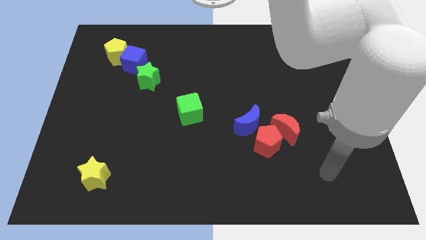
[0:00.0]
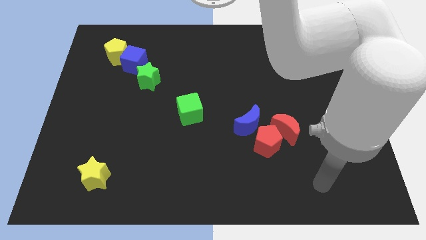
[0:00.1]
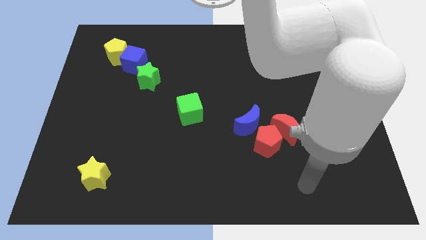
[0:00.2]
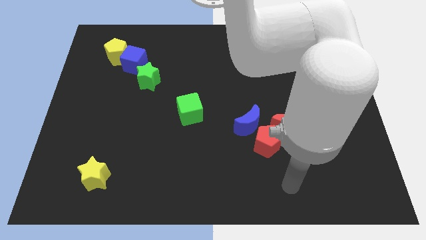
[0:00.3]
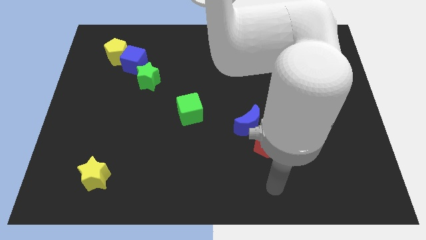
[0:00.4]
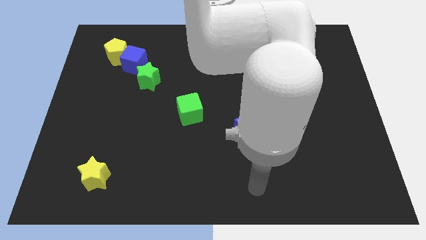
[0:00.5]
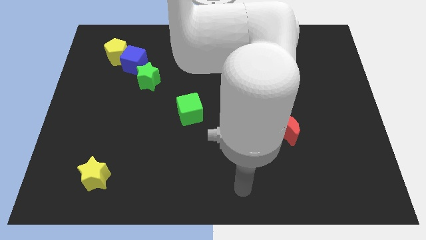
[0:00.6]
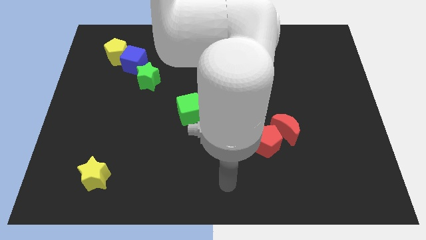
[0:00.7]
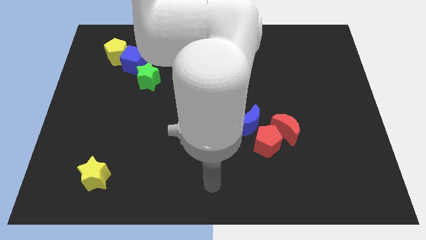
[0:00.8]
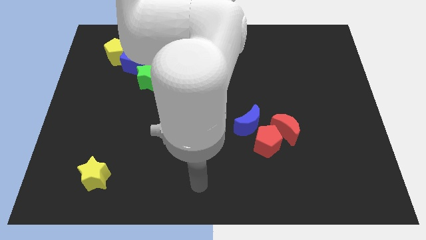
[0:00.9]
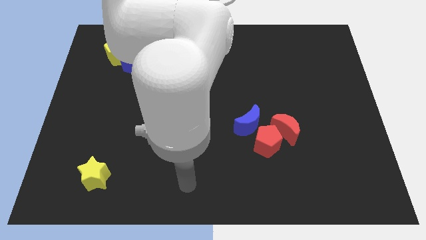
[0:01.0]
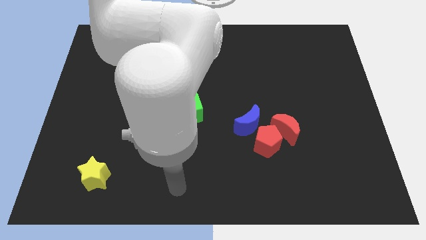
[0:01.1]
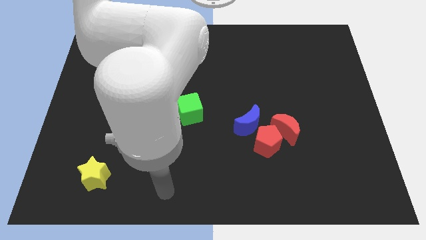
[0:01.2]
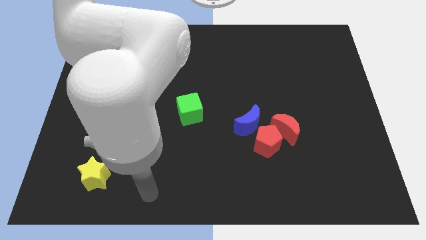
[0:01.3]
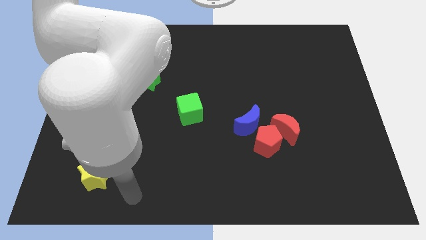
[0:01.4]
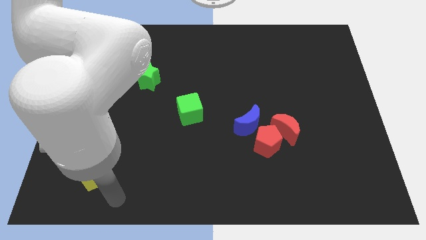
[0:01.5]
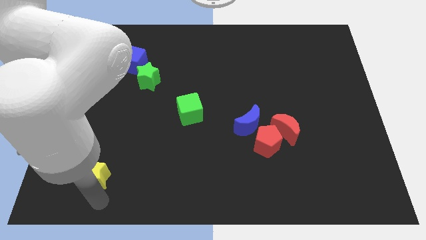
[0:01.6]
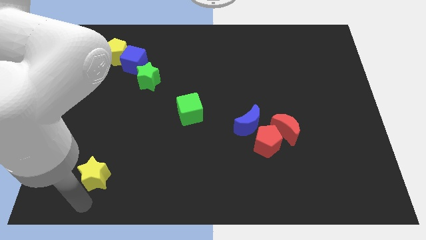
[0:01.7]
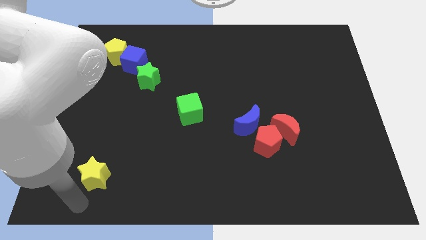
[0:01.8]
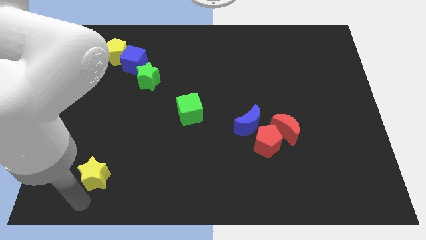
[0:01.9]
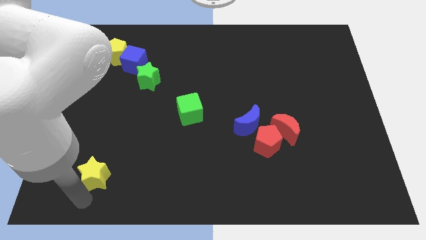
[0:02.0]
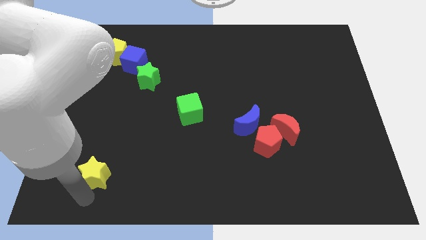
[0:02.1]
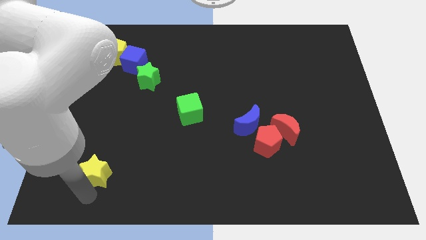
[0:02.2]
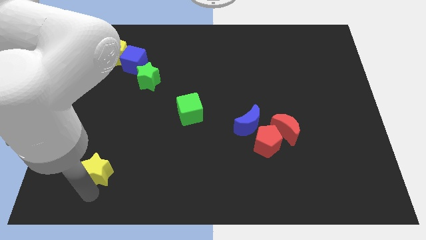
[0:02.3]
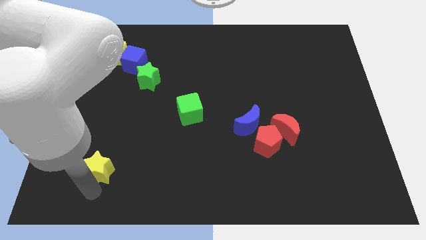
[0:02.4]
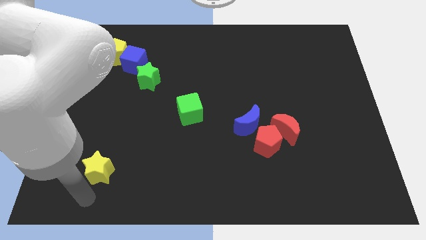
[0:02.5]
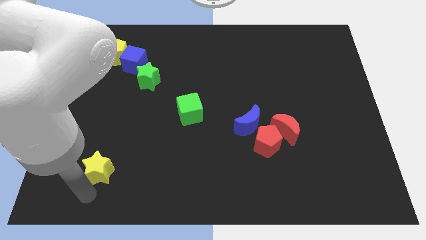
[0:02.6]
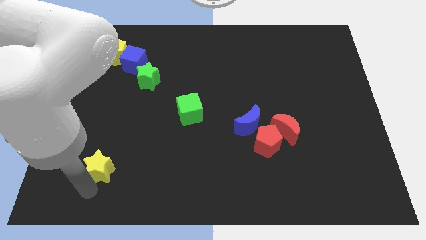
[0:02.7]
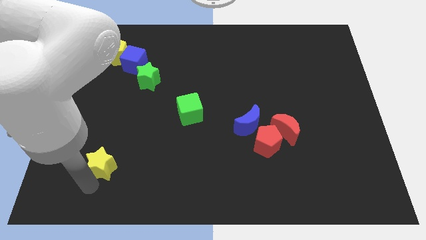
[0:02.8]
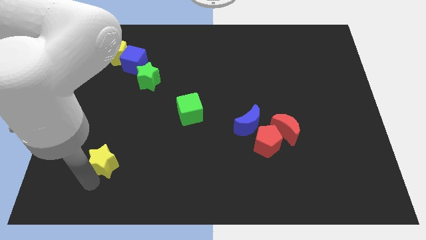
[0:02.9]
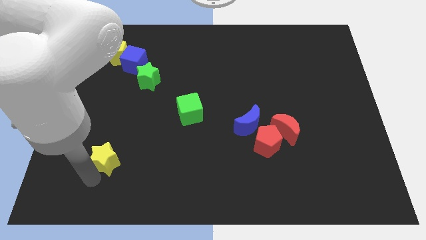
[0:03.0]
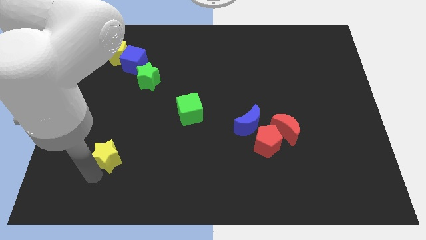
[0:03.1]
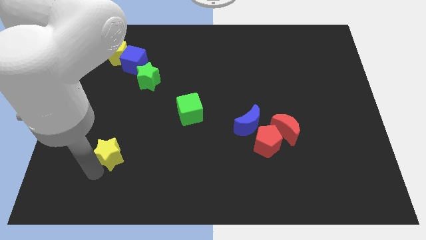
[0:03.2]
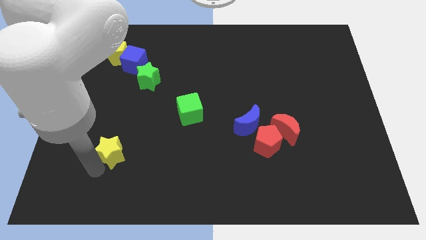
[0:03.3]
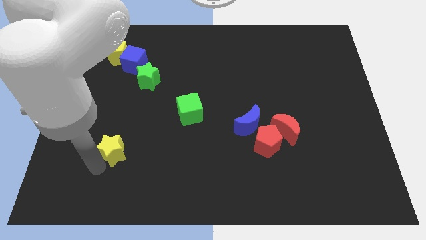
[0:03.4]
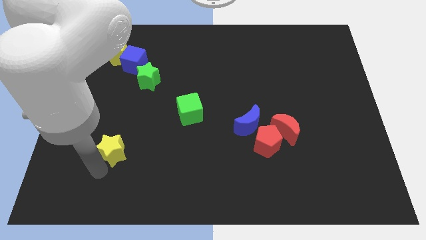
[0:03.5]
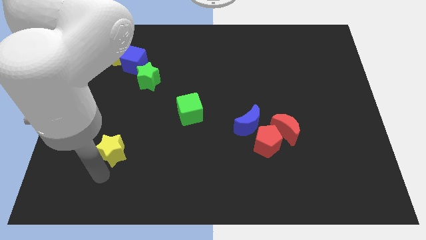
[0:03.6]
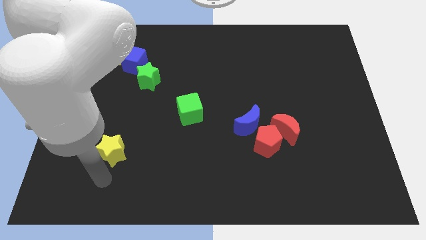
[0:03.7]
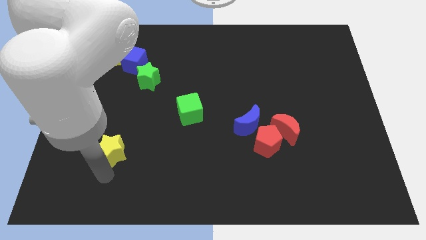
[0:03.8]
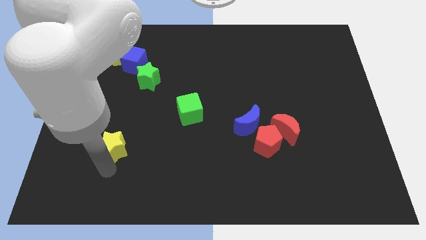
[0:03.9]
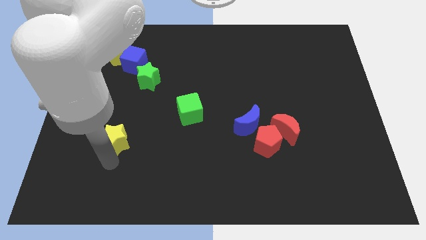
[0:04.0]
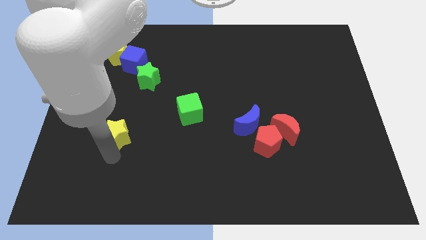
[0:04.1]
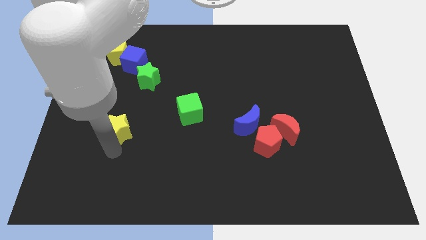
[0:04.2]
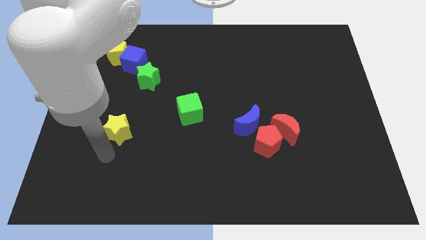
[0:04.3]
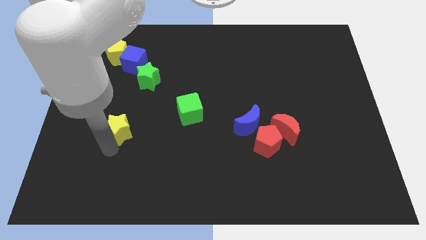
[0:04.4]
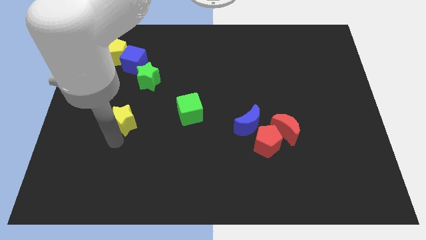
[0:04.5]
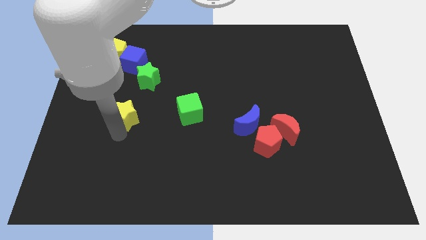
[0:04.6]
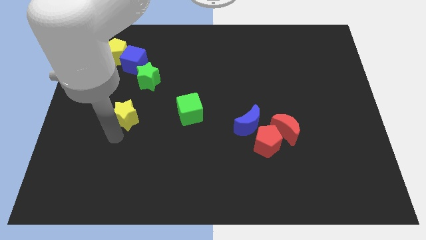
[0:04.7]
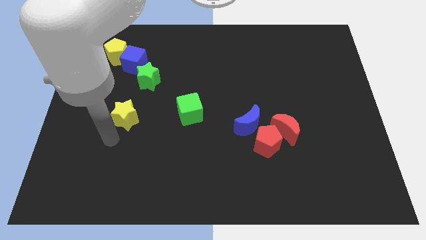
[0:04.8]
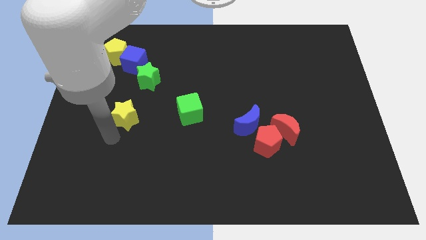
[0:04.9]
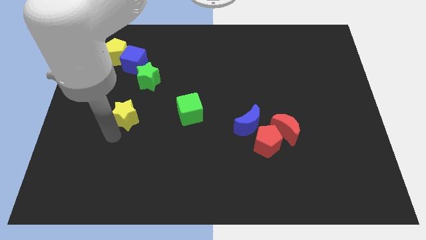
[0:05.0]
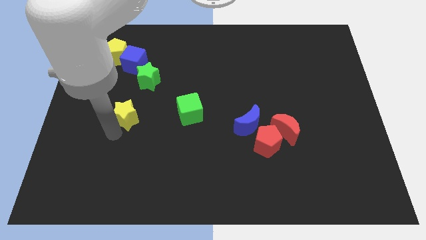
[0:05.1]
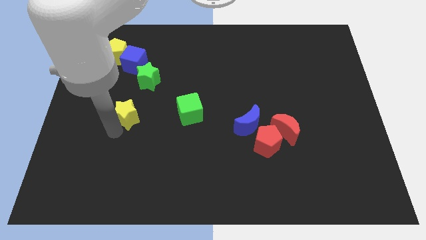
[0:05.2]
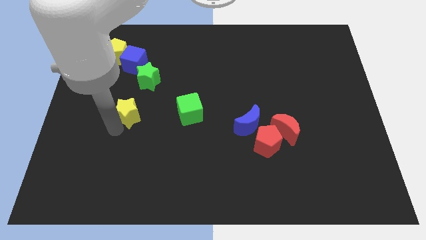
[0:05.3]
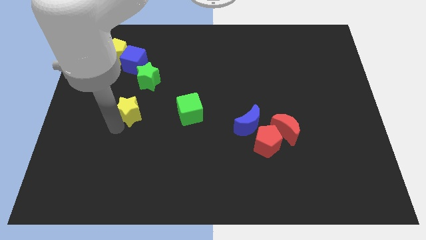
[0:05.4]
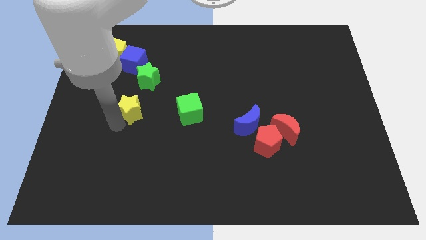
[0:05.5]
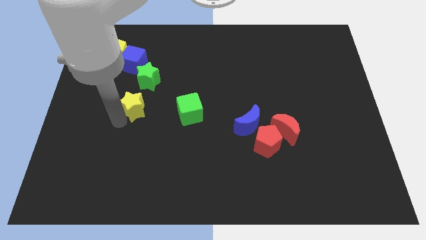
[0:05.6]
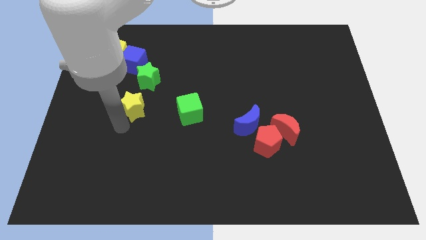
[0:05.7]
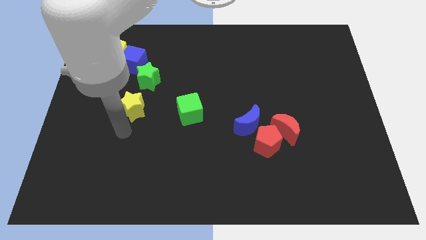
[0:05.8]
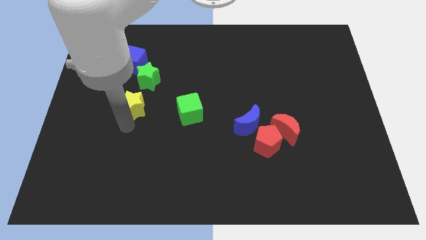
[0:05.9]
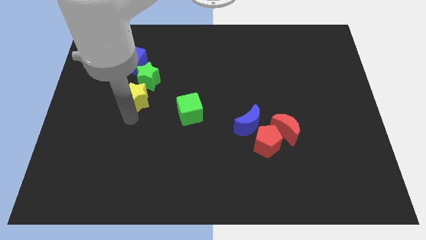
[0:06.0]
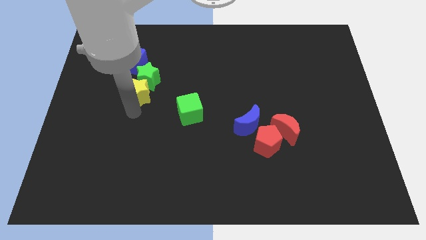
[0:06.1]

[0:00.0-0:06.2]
slide the yellow star next to the green star
